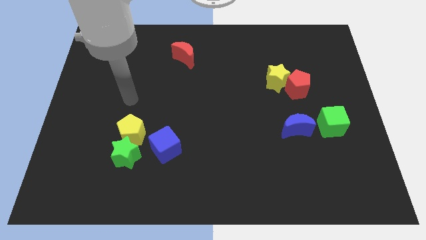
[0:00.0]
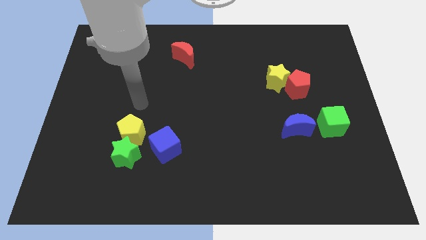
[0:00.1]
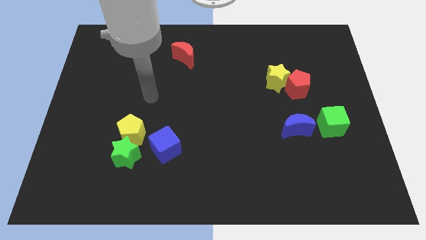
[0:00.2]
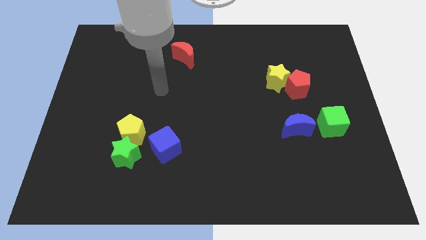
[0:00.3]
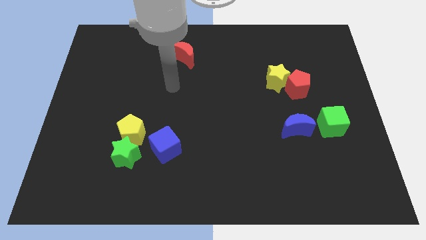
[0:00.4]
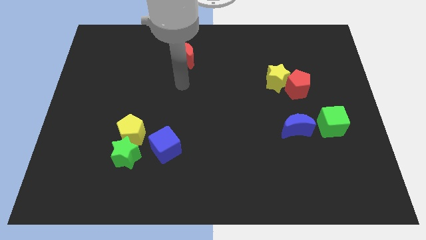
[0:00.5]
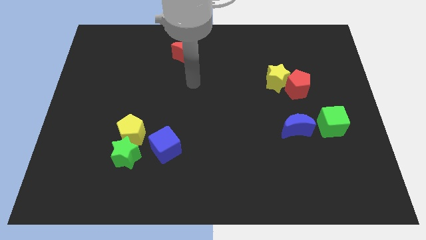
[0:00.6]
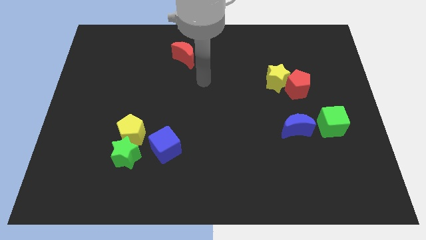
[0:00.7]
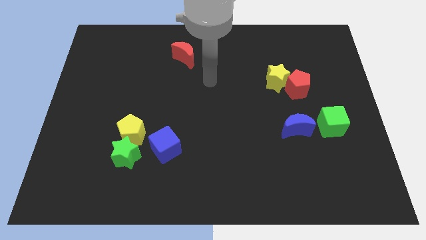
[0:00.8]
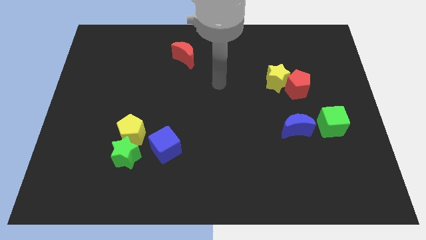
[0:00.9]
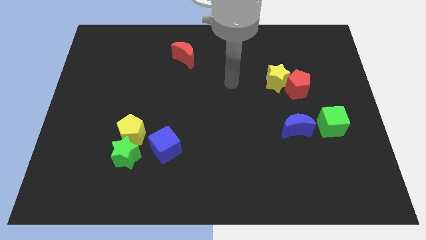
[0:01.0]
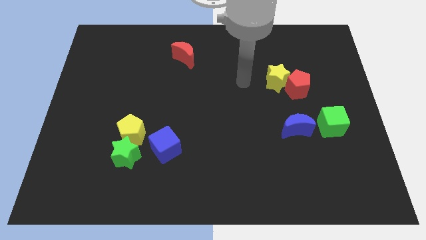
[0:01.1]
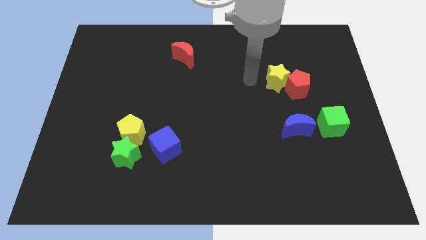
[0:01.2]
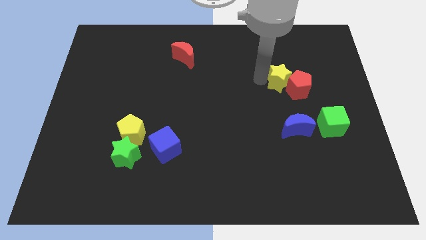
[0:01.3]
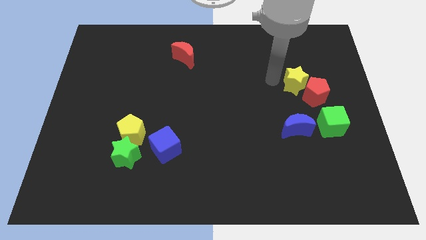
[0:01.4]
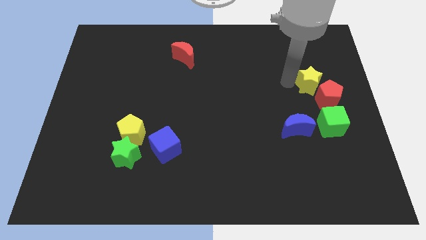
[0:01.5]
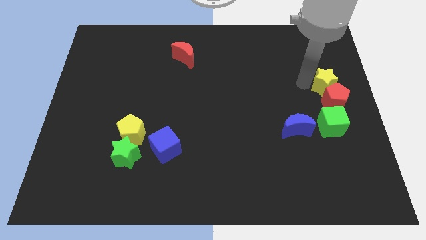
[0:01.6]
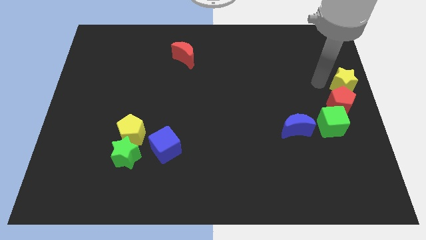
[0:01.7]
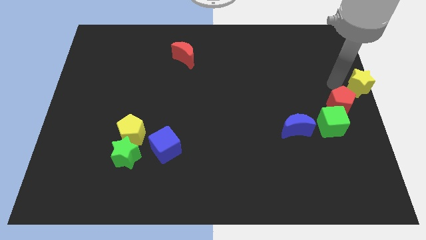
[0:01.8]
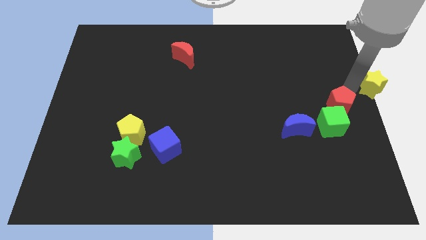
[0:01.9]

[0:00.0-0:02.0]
pull the red pentagon apart from the yellow star

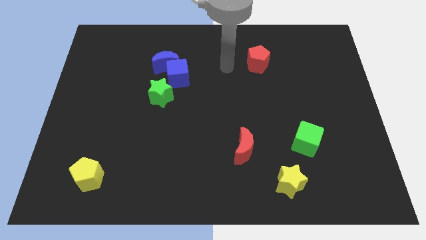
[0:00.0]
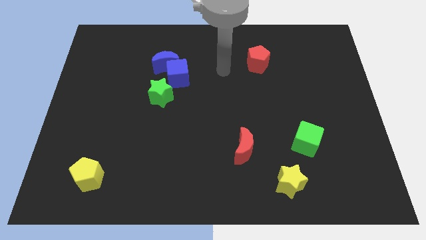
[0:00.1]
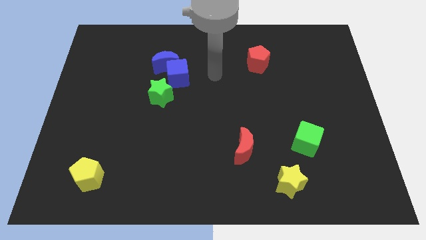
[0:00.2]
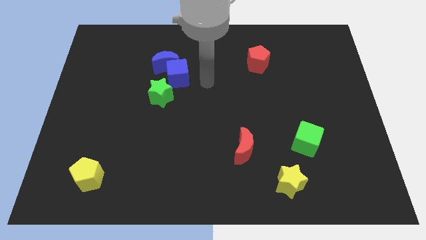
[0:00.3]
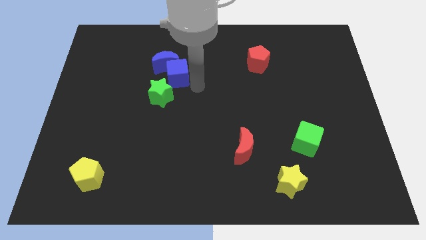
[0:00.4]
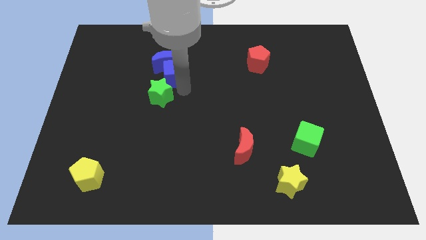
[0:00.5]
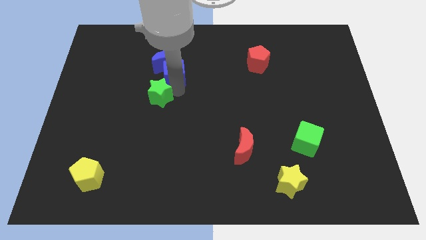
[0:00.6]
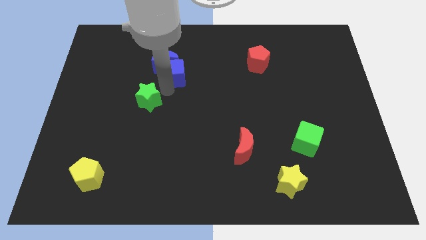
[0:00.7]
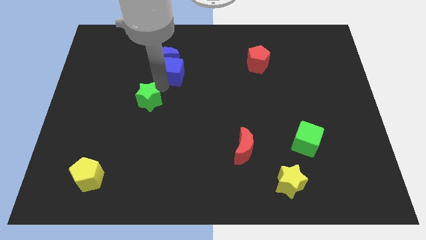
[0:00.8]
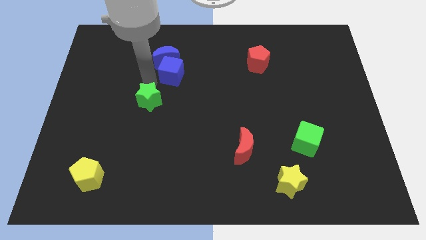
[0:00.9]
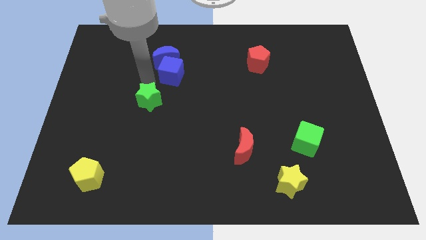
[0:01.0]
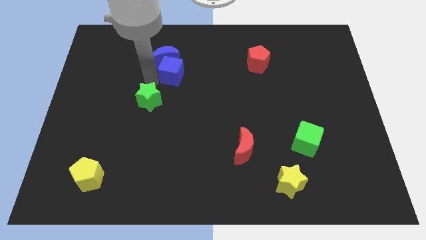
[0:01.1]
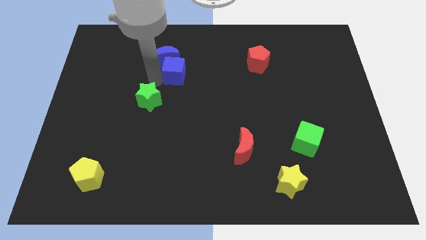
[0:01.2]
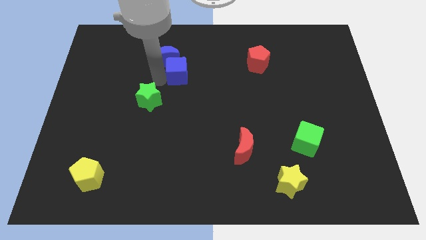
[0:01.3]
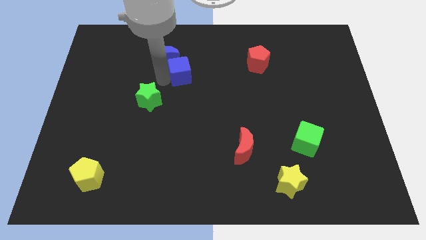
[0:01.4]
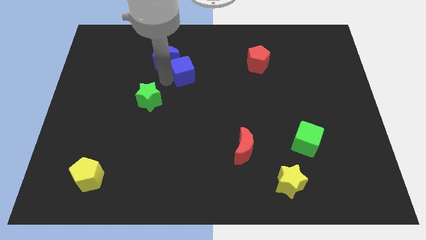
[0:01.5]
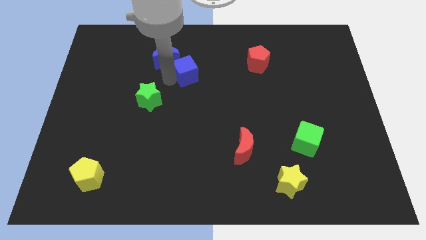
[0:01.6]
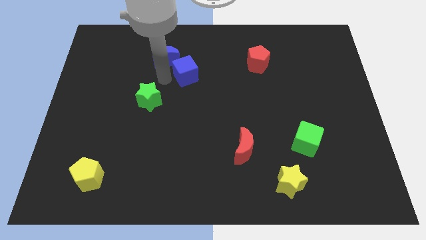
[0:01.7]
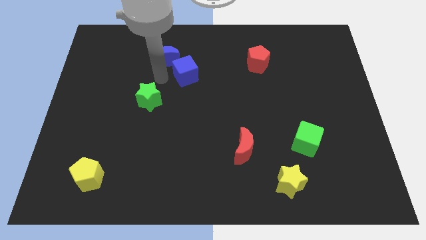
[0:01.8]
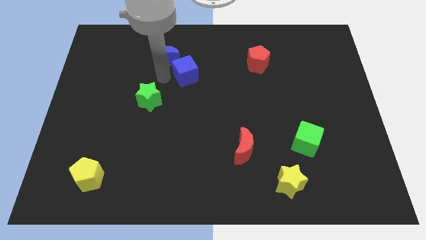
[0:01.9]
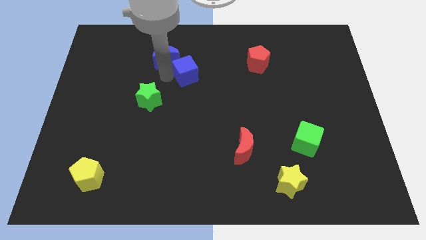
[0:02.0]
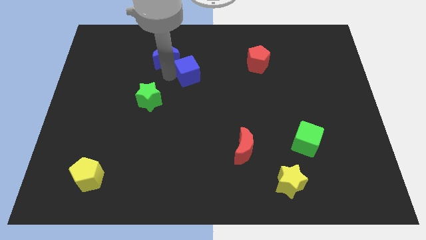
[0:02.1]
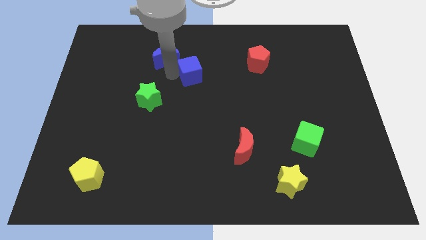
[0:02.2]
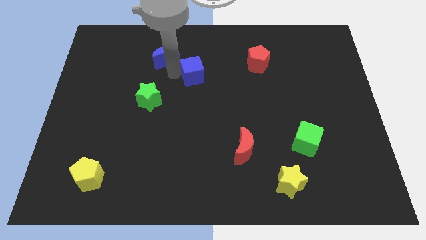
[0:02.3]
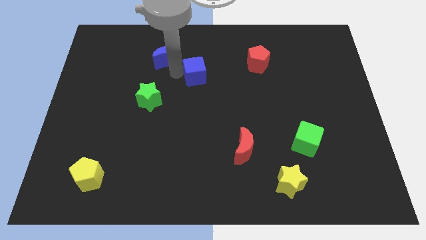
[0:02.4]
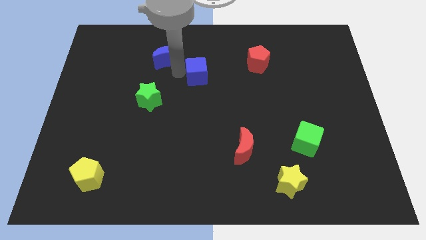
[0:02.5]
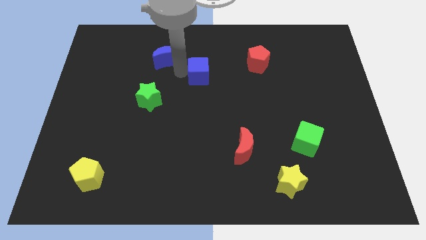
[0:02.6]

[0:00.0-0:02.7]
move the blue cube away from the blue moon and green star

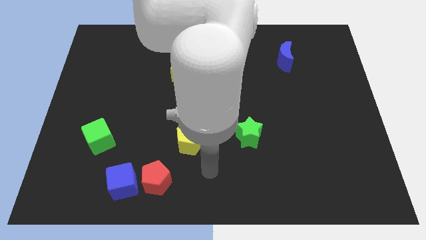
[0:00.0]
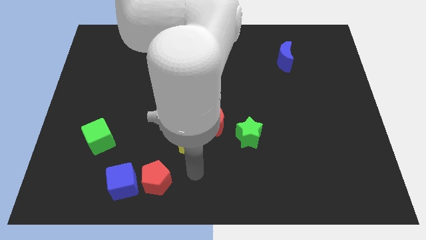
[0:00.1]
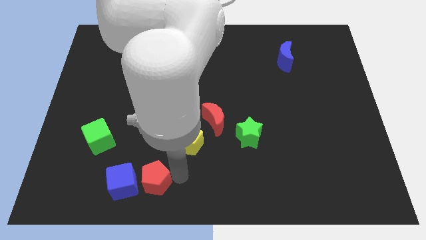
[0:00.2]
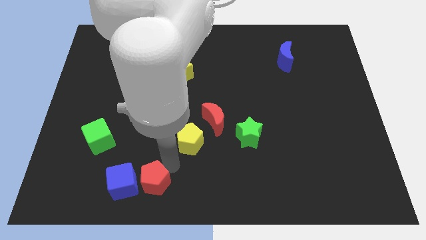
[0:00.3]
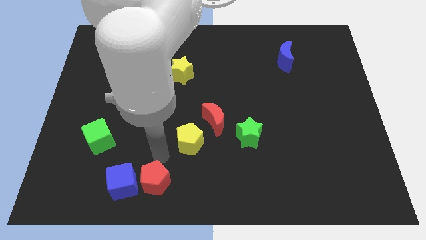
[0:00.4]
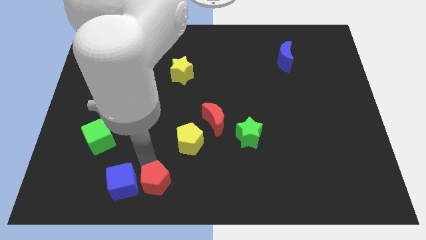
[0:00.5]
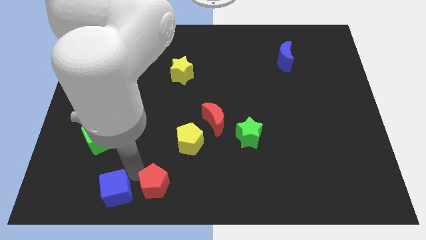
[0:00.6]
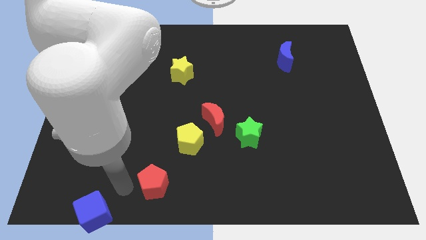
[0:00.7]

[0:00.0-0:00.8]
move the red pentagon away from the blue cube

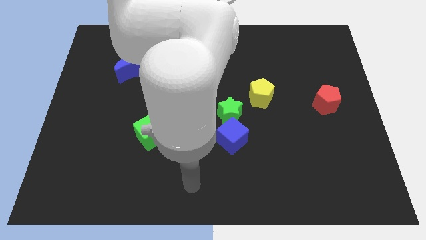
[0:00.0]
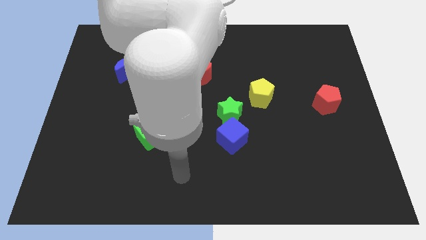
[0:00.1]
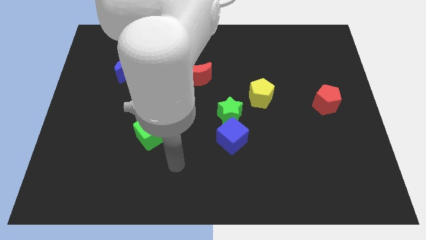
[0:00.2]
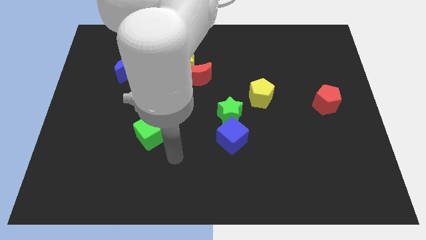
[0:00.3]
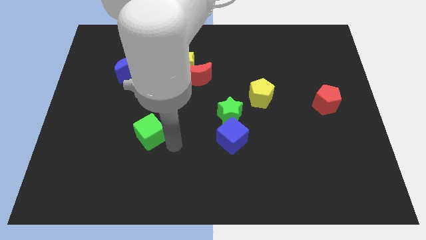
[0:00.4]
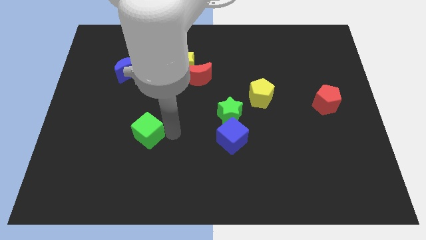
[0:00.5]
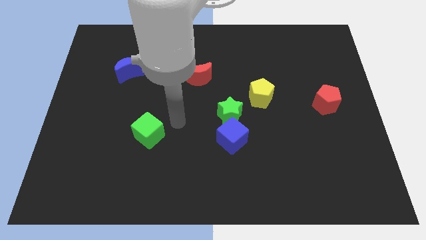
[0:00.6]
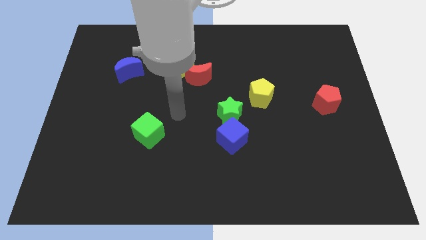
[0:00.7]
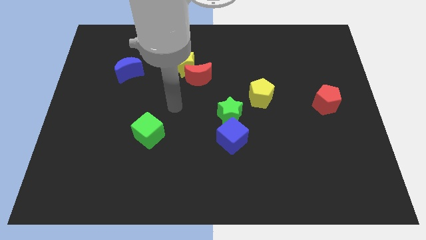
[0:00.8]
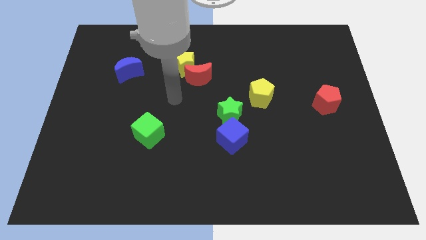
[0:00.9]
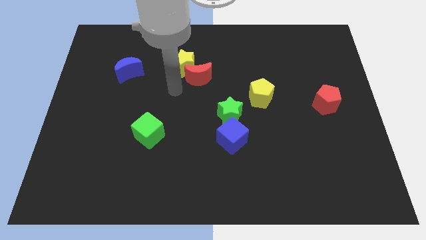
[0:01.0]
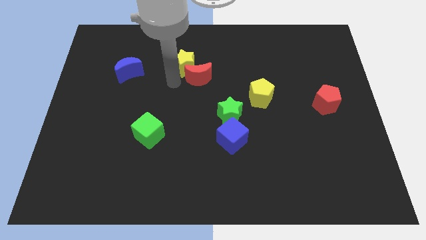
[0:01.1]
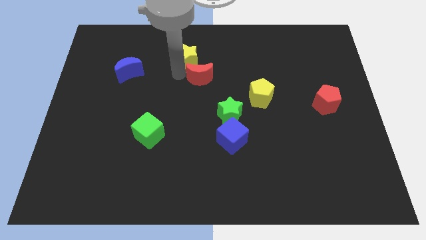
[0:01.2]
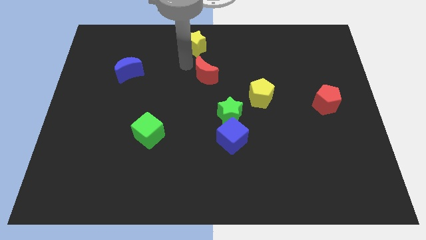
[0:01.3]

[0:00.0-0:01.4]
separate the red moon from the yellow star

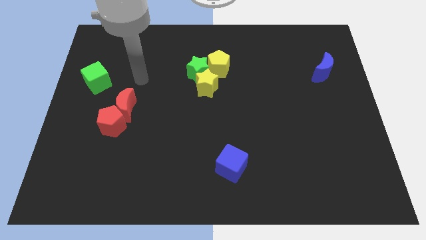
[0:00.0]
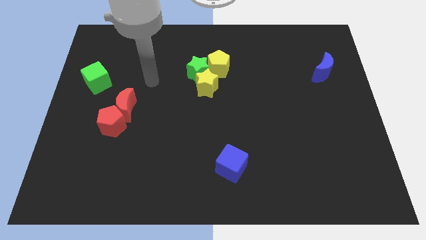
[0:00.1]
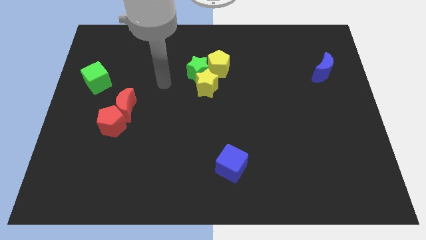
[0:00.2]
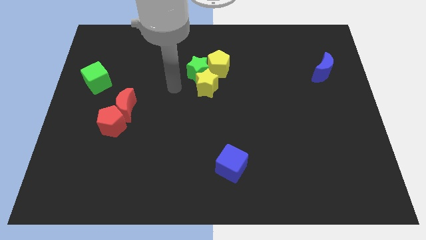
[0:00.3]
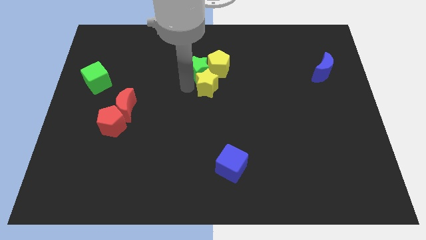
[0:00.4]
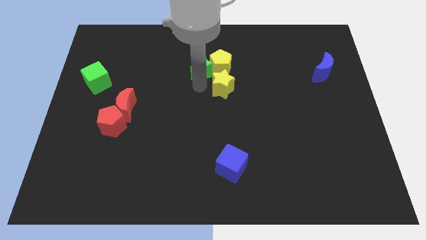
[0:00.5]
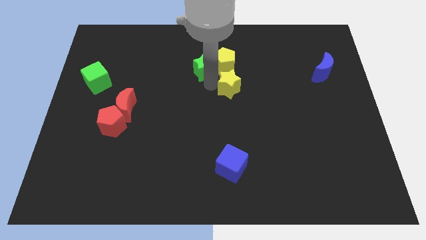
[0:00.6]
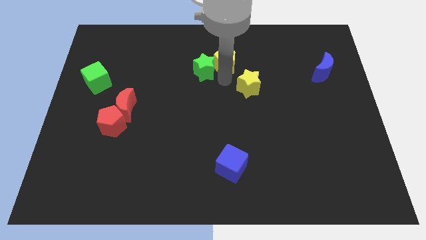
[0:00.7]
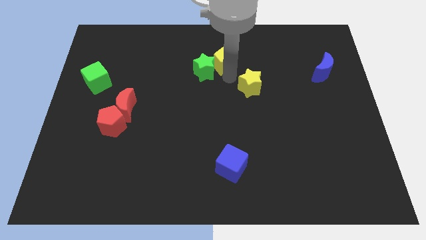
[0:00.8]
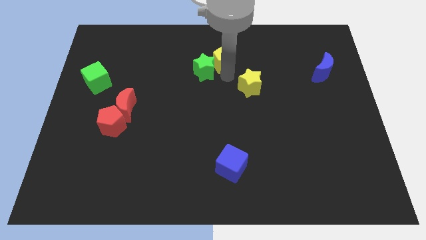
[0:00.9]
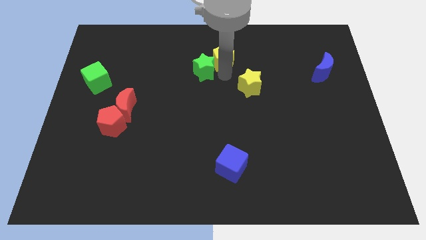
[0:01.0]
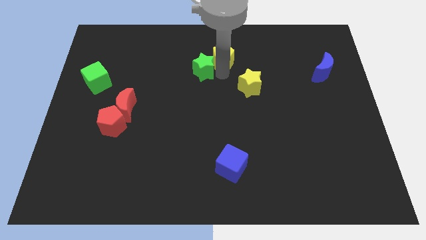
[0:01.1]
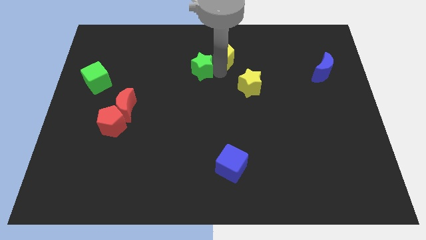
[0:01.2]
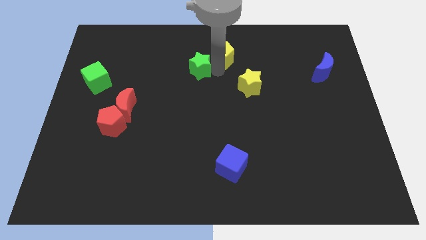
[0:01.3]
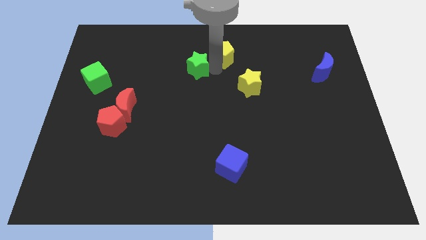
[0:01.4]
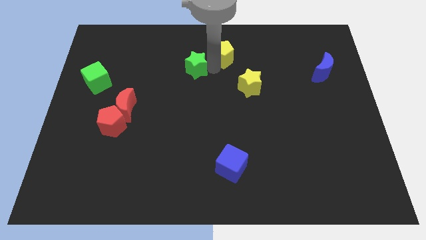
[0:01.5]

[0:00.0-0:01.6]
separate the green star from the yellow star and yellow pentagon

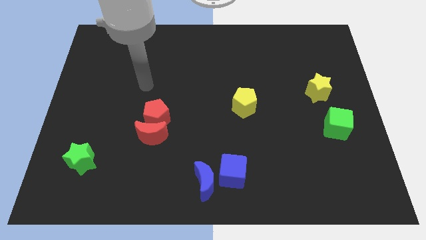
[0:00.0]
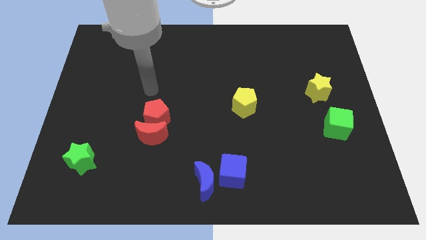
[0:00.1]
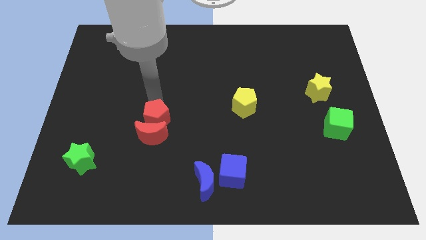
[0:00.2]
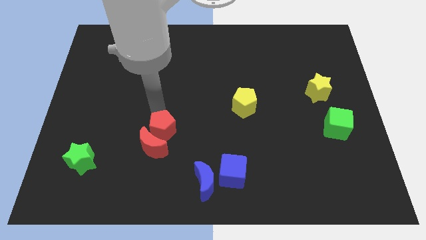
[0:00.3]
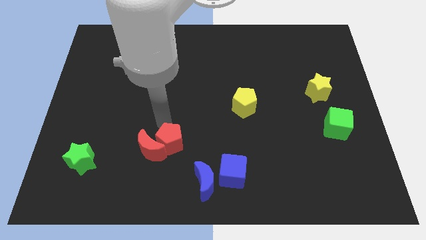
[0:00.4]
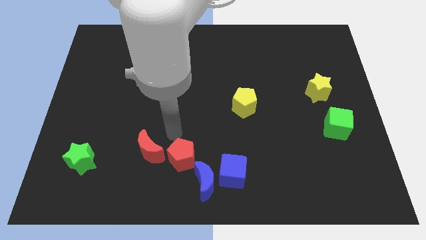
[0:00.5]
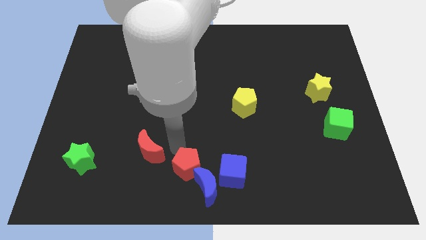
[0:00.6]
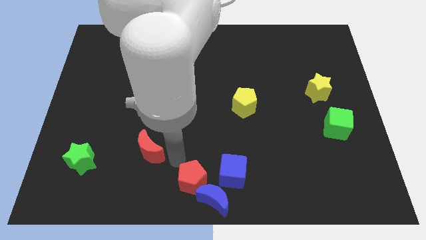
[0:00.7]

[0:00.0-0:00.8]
move the red moon away from the red pentagon
